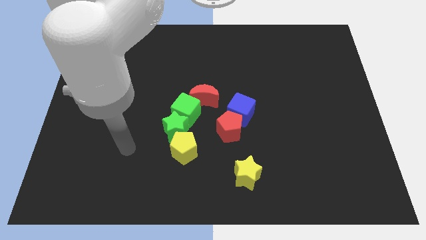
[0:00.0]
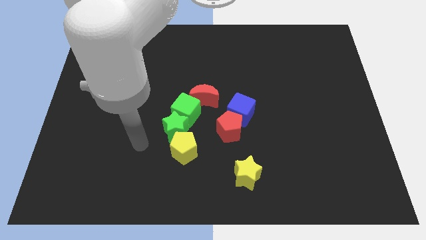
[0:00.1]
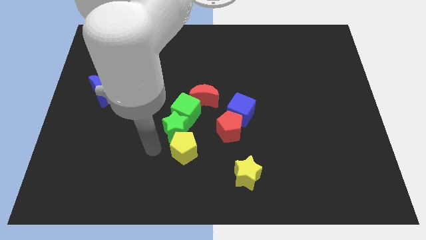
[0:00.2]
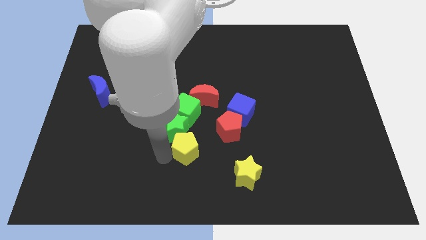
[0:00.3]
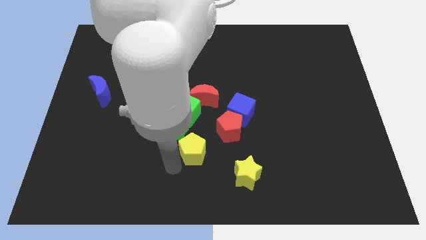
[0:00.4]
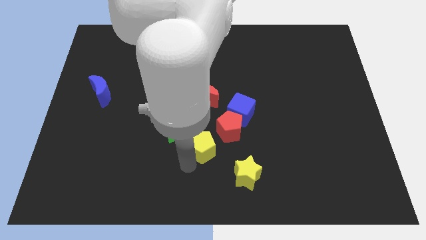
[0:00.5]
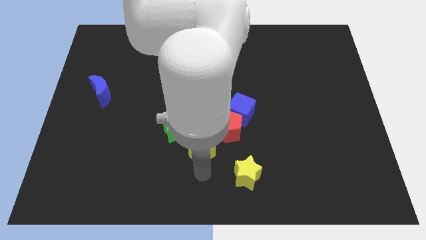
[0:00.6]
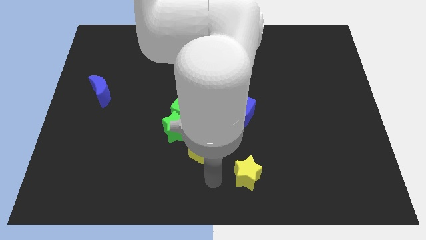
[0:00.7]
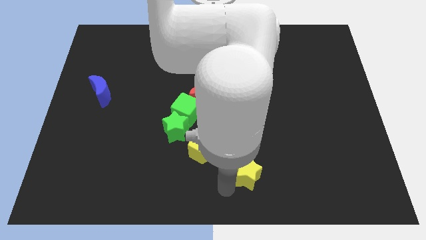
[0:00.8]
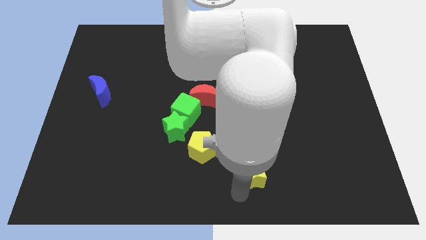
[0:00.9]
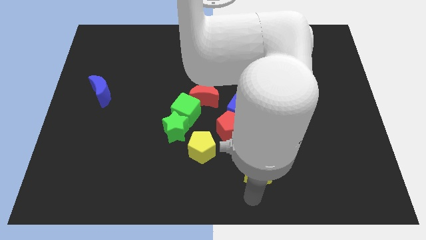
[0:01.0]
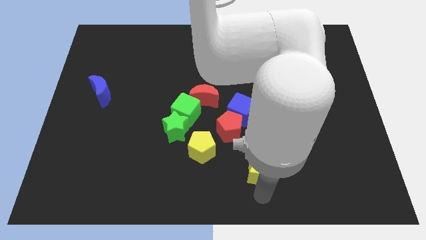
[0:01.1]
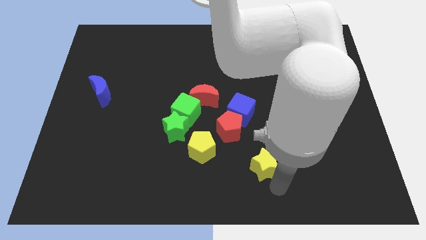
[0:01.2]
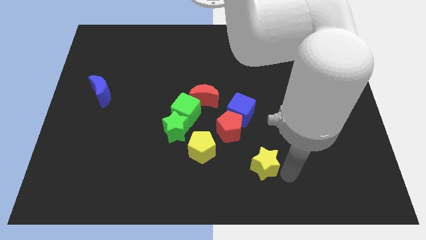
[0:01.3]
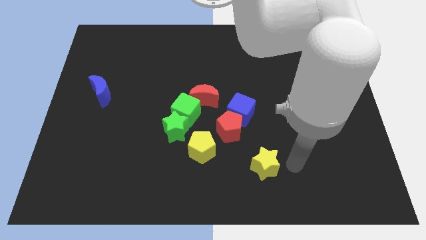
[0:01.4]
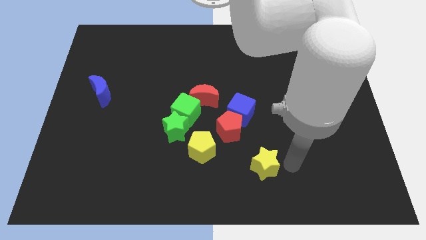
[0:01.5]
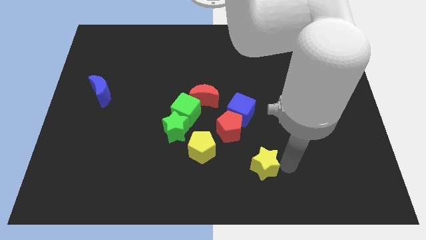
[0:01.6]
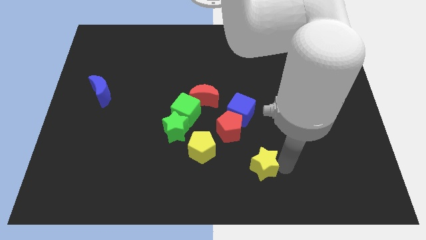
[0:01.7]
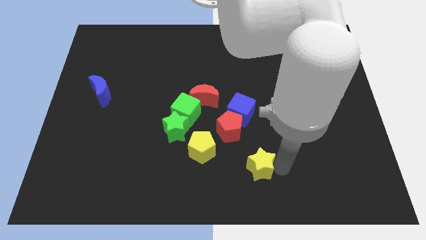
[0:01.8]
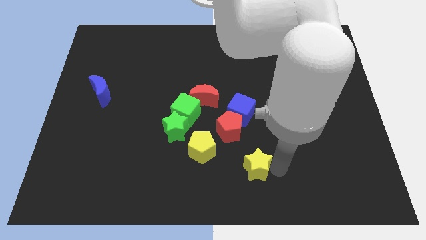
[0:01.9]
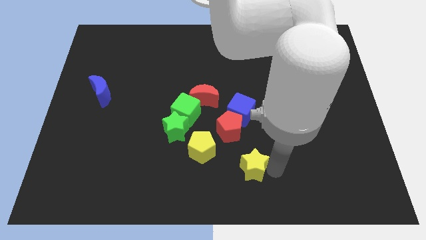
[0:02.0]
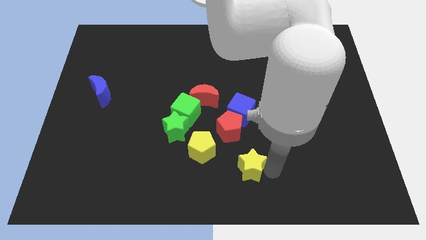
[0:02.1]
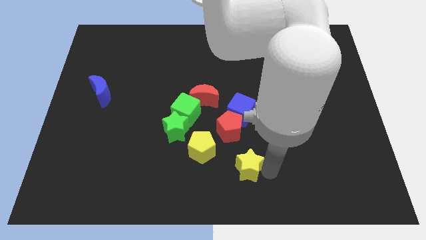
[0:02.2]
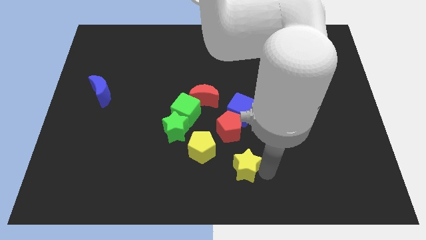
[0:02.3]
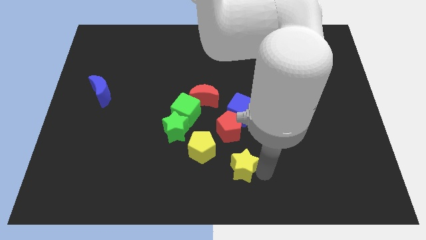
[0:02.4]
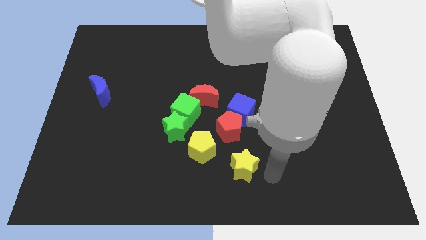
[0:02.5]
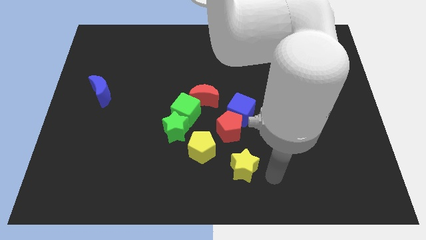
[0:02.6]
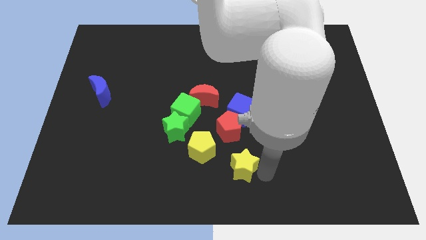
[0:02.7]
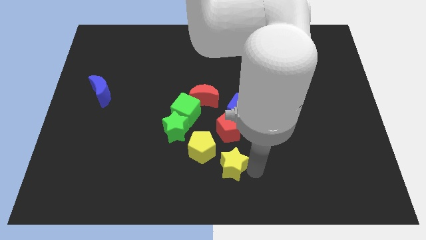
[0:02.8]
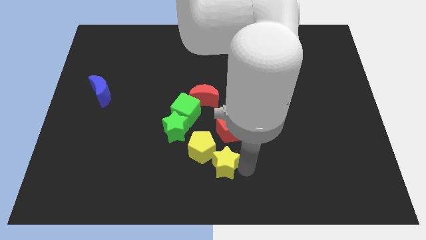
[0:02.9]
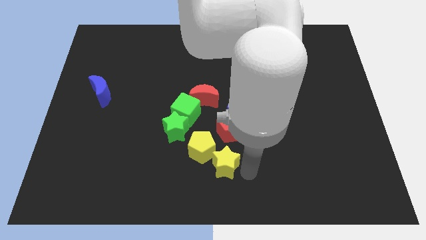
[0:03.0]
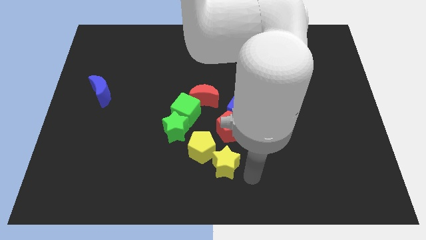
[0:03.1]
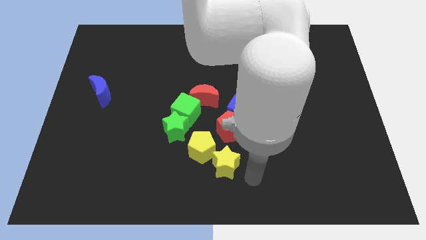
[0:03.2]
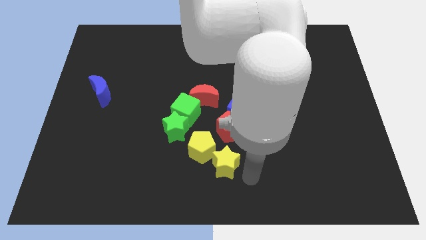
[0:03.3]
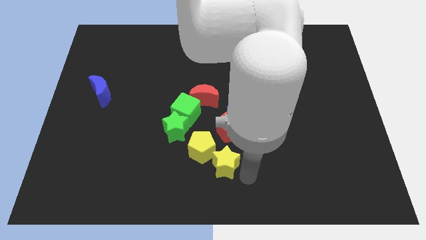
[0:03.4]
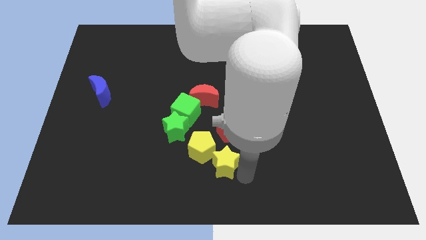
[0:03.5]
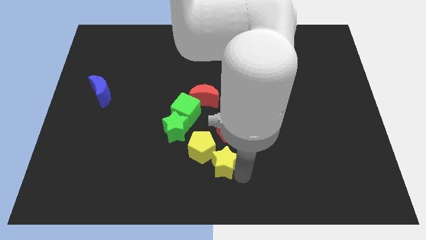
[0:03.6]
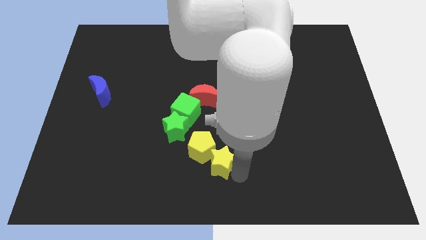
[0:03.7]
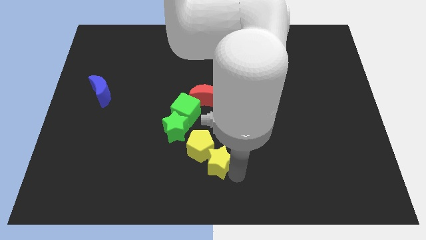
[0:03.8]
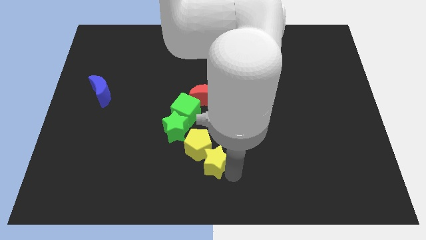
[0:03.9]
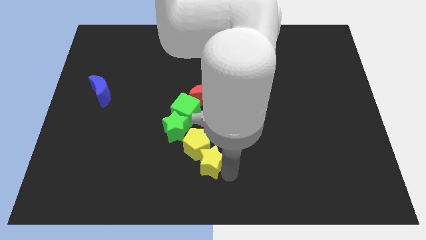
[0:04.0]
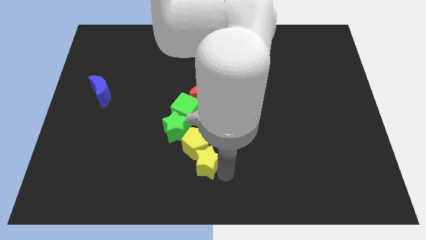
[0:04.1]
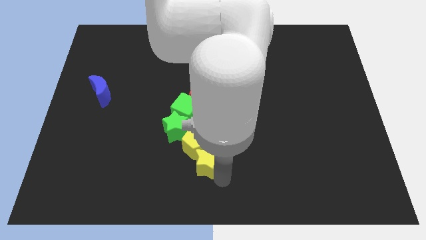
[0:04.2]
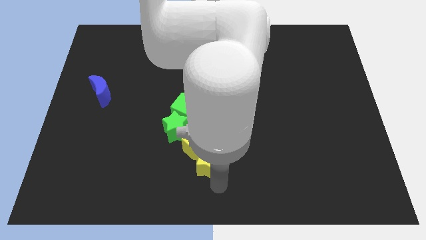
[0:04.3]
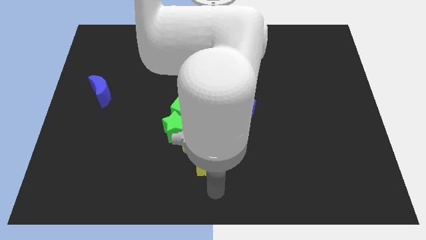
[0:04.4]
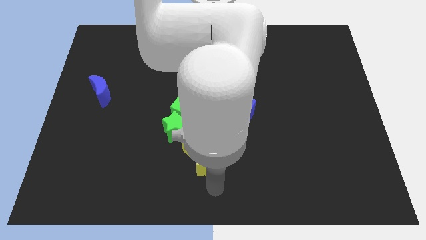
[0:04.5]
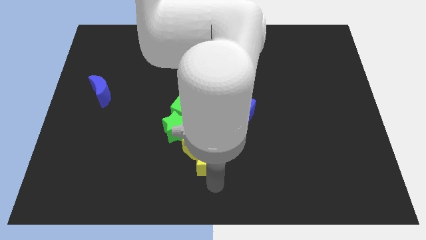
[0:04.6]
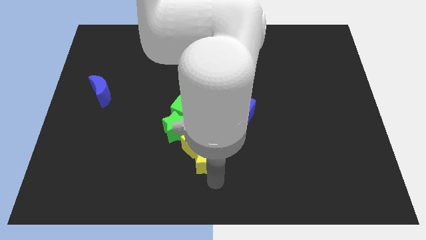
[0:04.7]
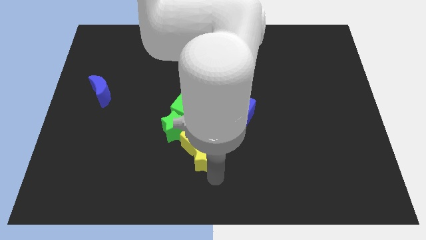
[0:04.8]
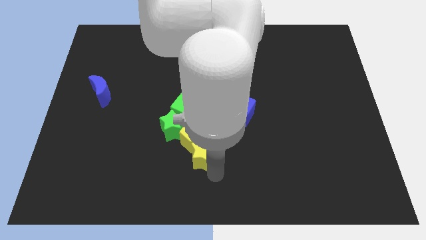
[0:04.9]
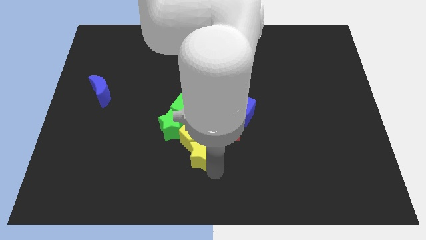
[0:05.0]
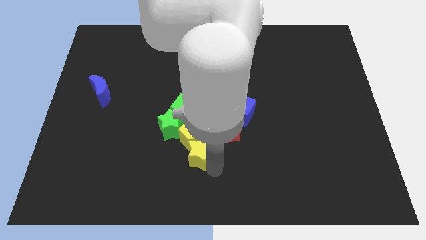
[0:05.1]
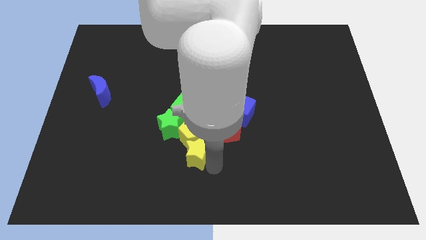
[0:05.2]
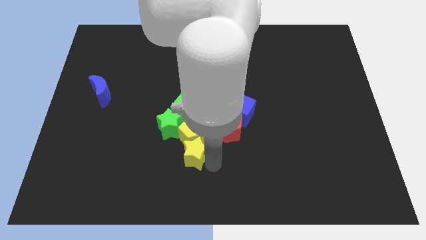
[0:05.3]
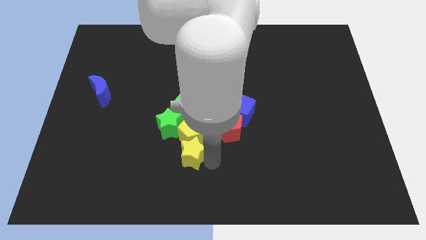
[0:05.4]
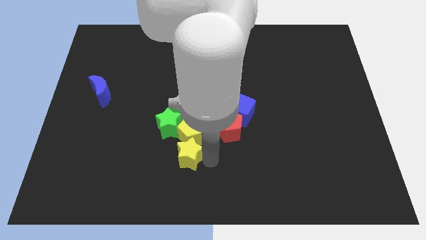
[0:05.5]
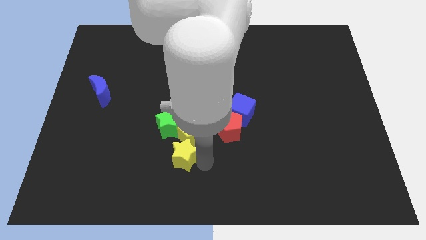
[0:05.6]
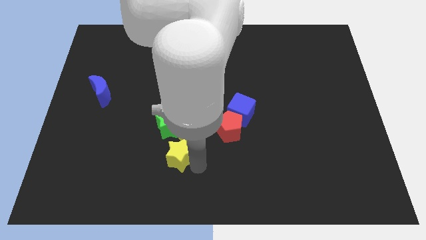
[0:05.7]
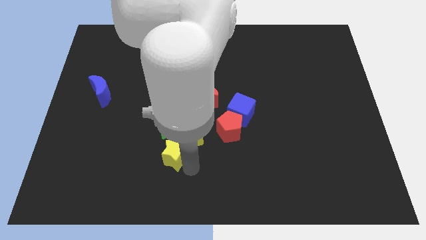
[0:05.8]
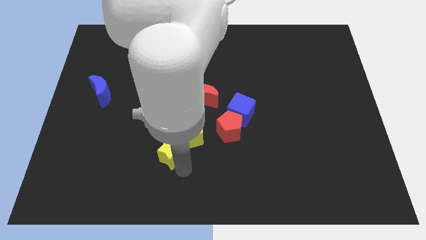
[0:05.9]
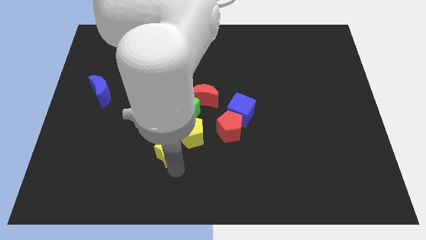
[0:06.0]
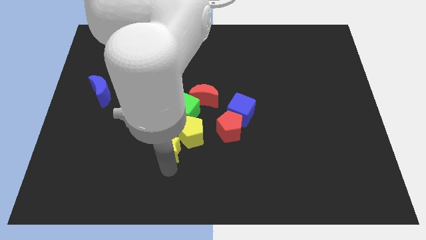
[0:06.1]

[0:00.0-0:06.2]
slide the yellow star towards the green star

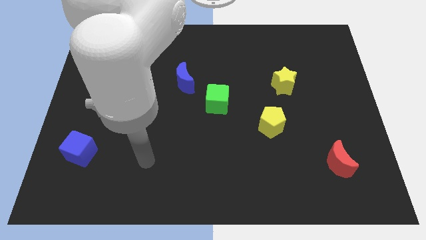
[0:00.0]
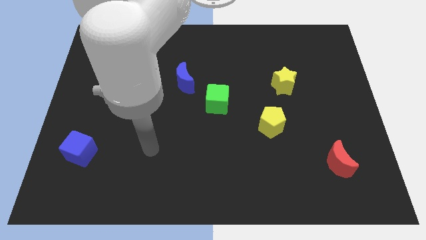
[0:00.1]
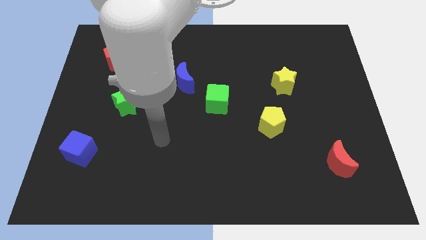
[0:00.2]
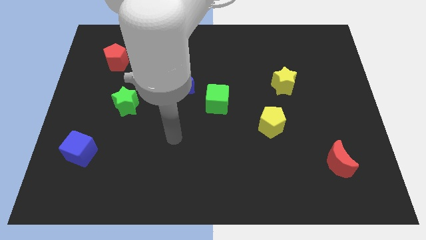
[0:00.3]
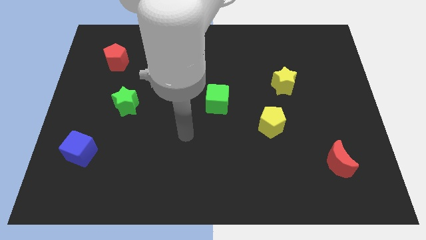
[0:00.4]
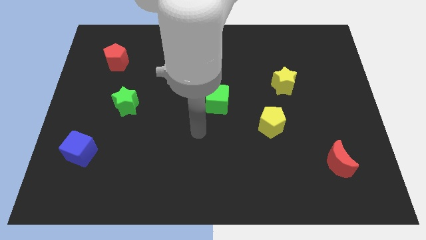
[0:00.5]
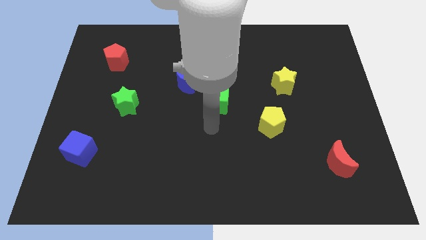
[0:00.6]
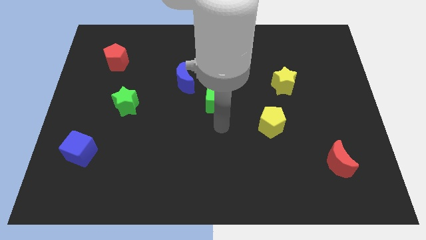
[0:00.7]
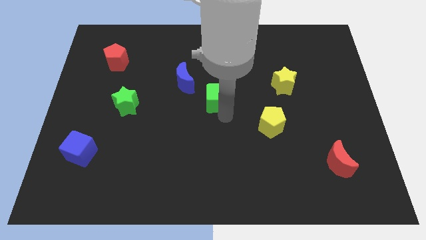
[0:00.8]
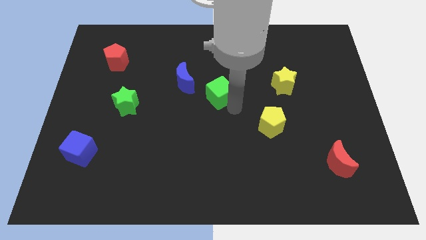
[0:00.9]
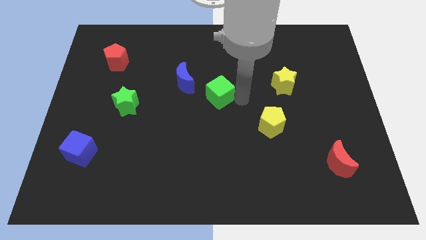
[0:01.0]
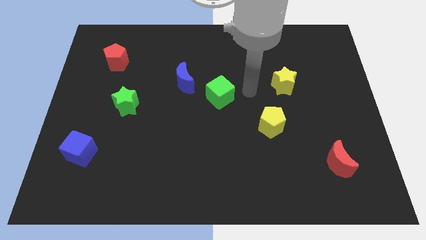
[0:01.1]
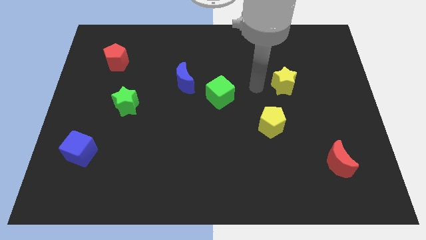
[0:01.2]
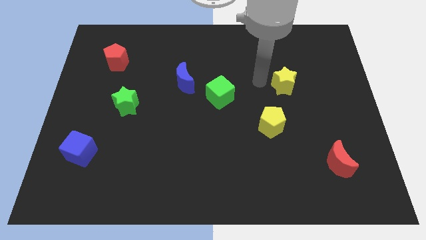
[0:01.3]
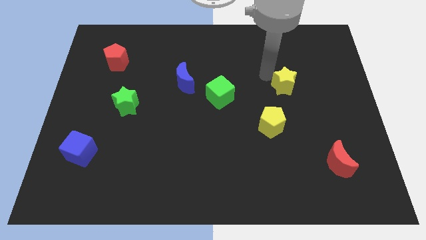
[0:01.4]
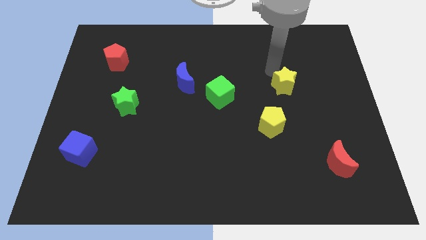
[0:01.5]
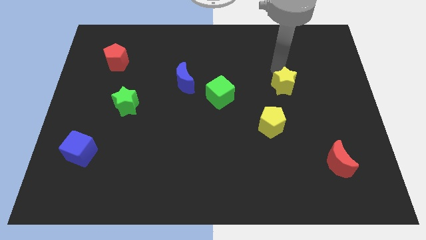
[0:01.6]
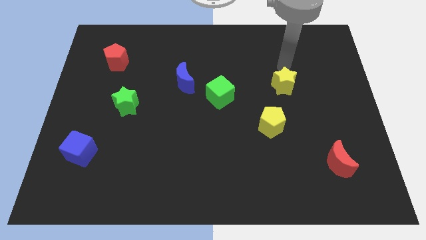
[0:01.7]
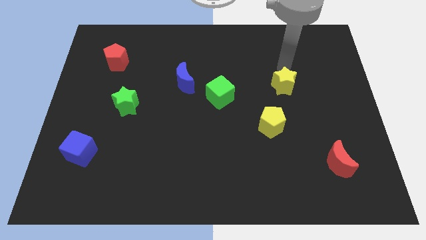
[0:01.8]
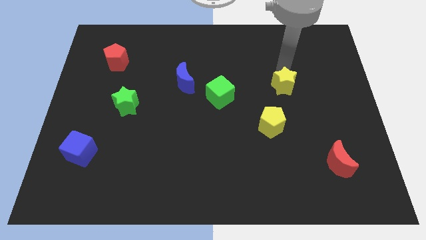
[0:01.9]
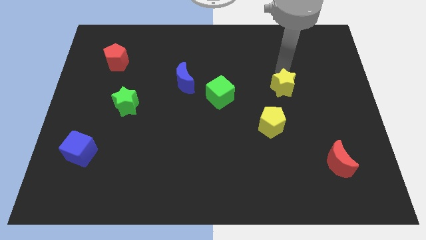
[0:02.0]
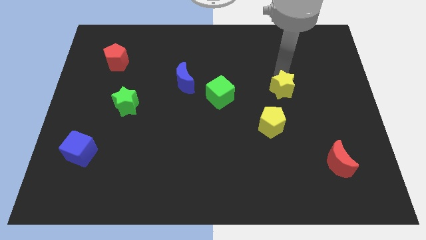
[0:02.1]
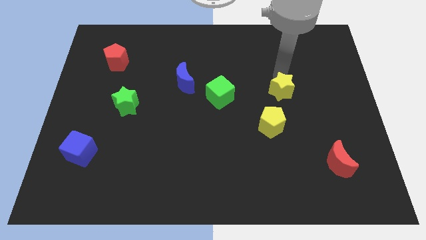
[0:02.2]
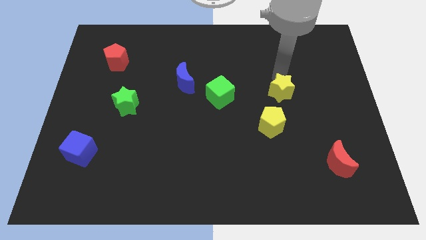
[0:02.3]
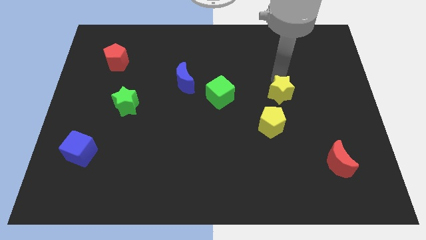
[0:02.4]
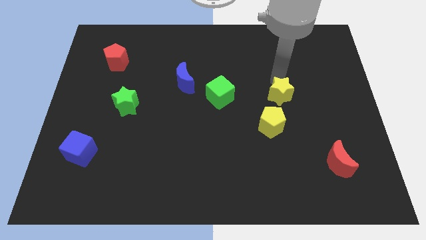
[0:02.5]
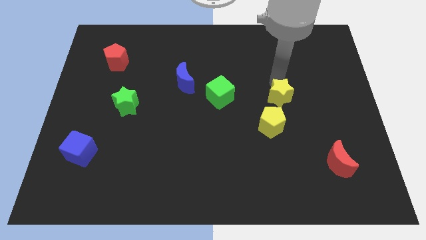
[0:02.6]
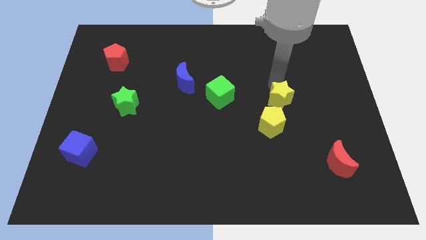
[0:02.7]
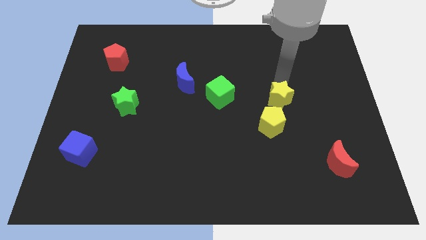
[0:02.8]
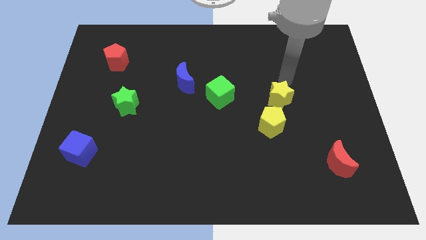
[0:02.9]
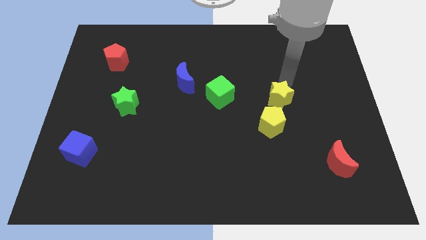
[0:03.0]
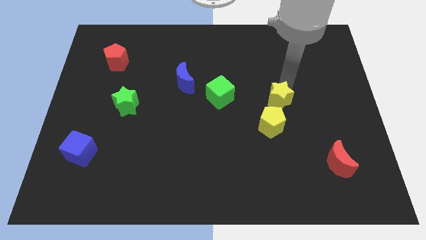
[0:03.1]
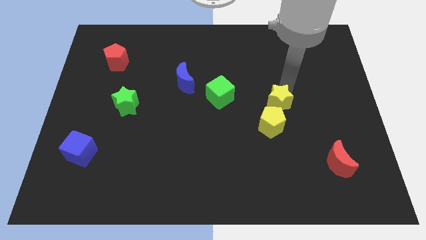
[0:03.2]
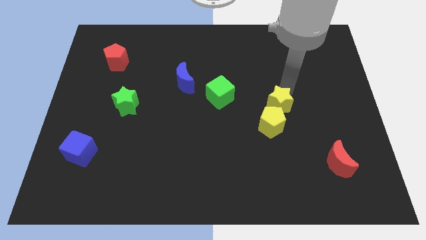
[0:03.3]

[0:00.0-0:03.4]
put the yellow star close to the yellow pentagon
